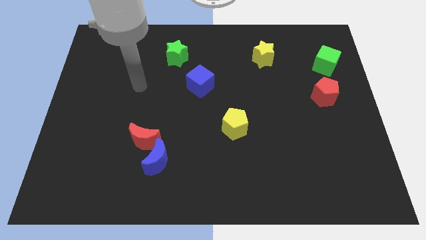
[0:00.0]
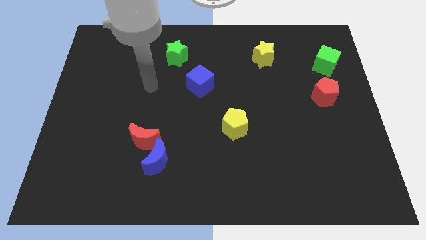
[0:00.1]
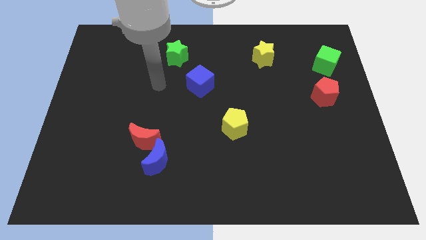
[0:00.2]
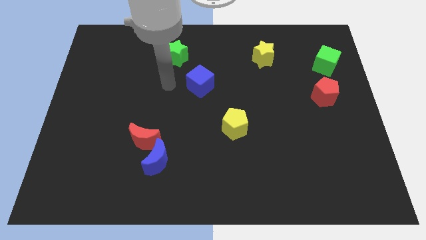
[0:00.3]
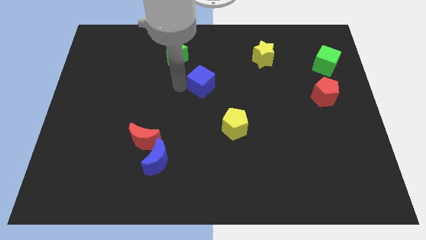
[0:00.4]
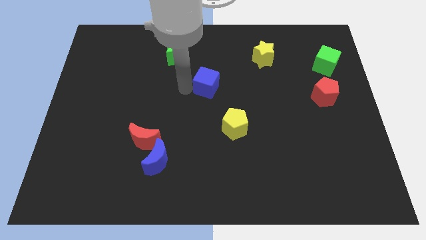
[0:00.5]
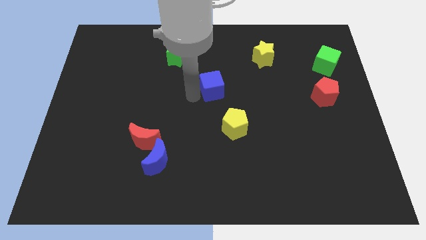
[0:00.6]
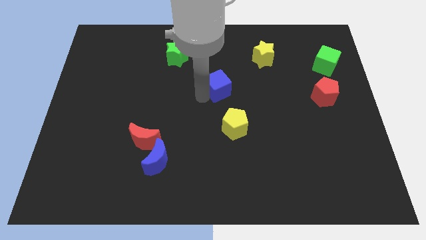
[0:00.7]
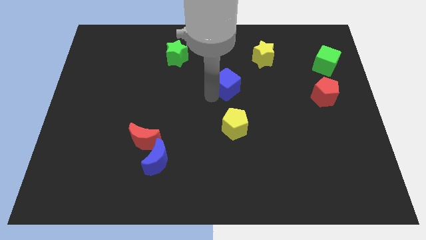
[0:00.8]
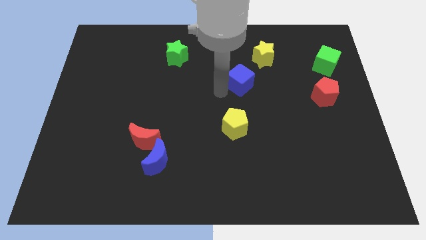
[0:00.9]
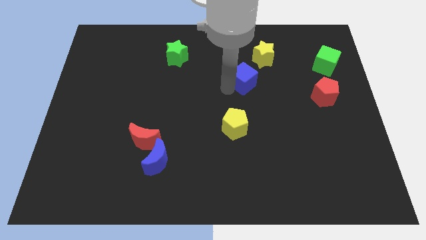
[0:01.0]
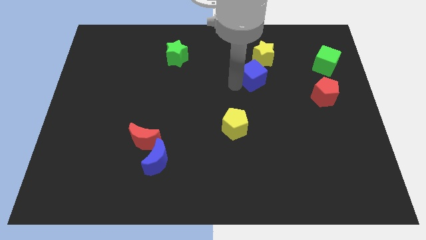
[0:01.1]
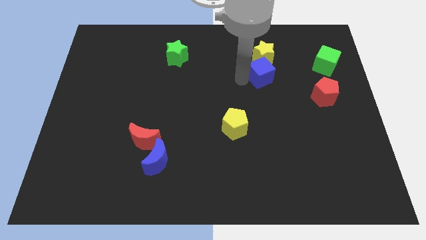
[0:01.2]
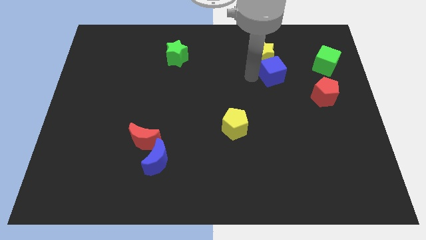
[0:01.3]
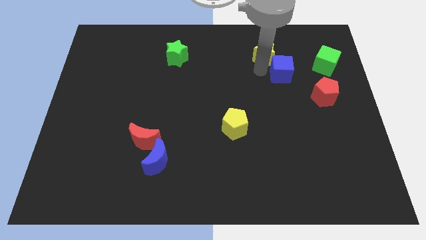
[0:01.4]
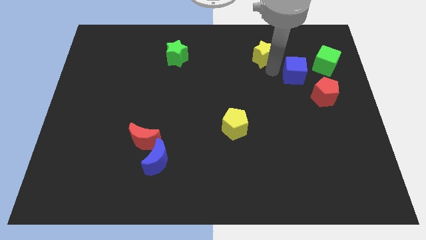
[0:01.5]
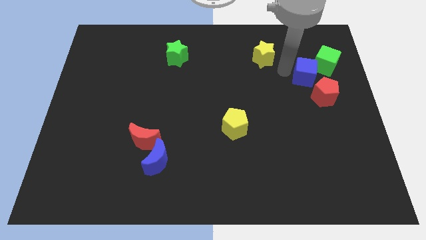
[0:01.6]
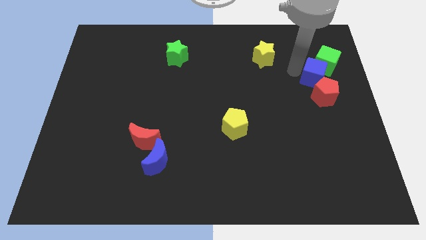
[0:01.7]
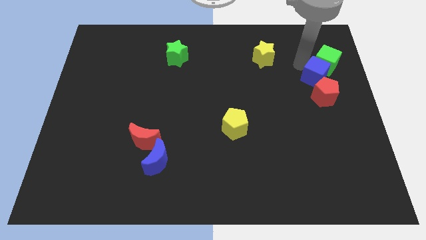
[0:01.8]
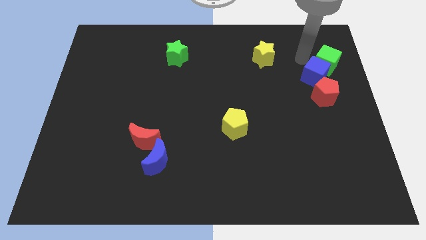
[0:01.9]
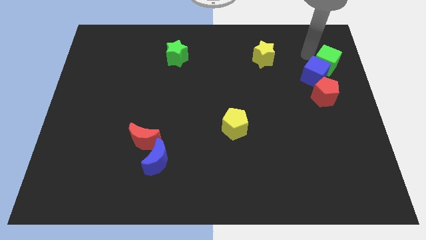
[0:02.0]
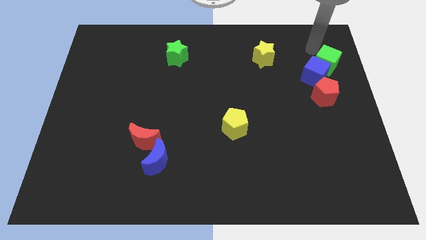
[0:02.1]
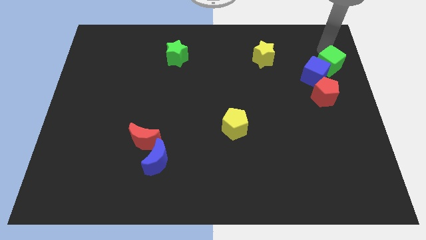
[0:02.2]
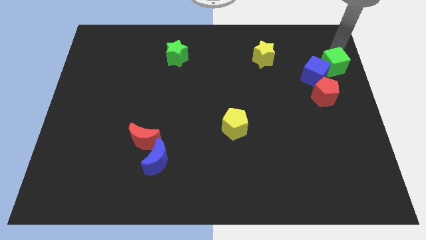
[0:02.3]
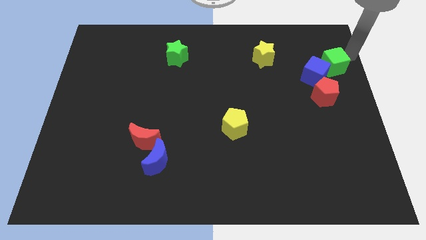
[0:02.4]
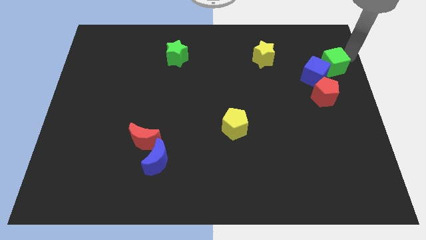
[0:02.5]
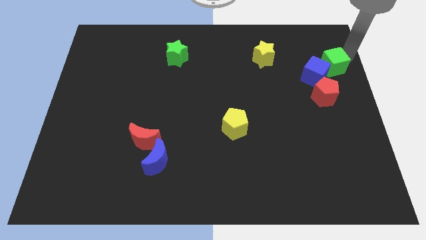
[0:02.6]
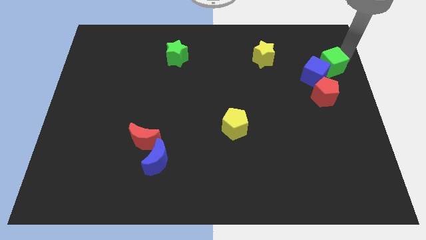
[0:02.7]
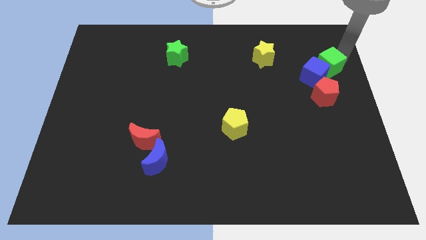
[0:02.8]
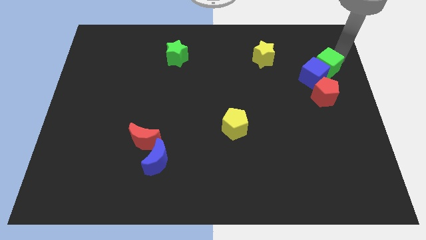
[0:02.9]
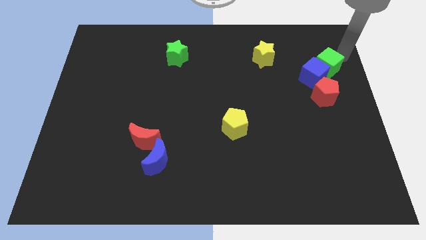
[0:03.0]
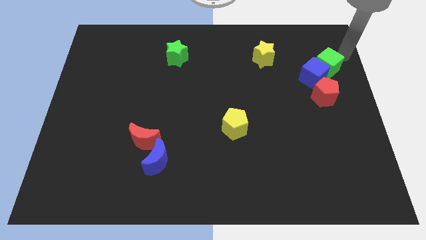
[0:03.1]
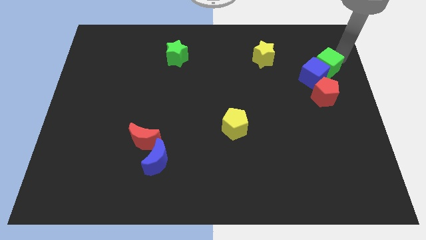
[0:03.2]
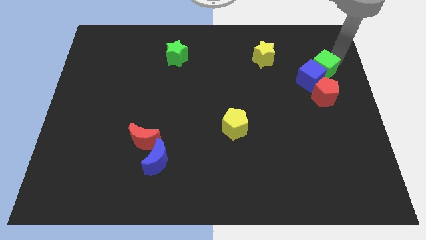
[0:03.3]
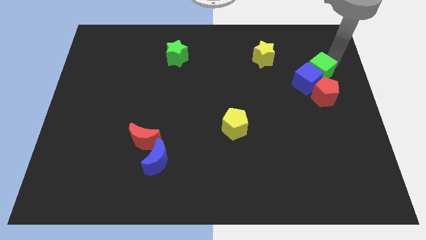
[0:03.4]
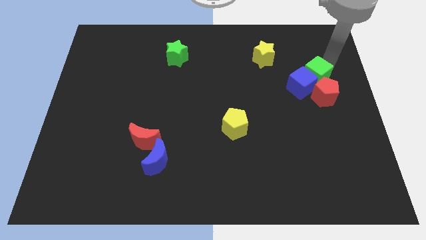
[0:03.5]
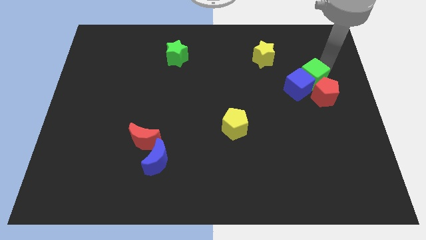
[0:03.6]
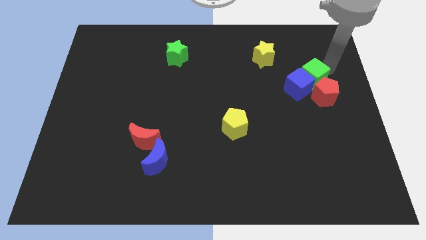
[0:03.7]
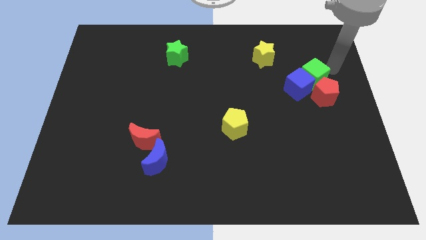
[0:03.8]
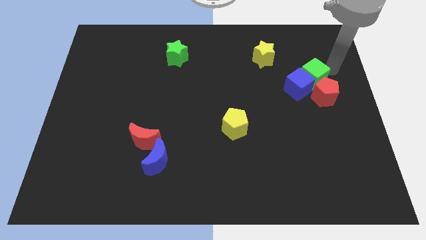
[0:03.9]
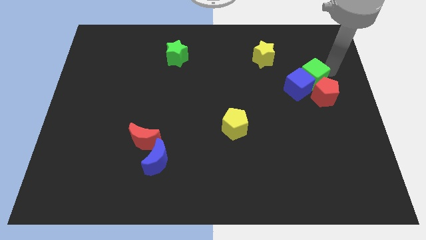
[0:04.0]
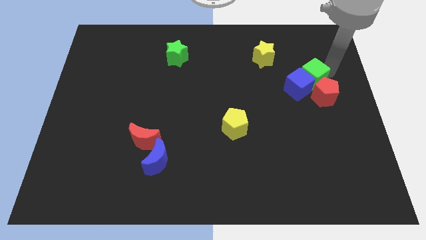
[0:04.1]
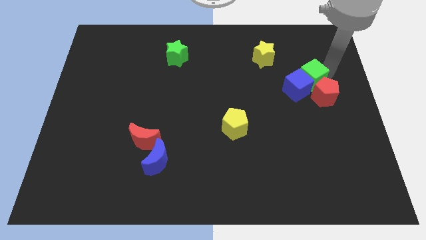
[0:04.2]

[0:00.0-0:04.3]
slightly slide the green cube downwards and to the left

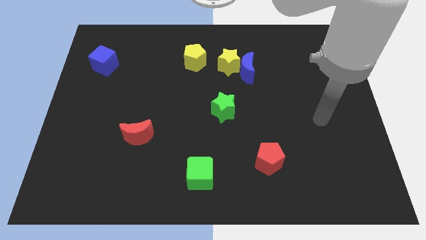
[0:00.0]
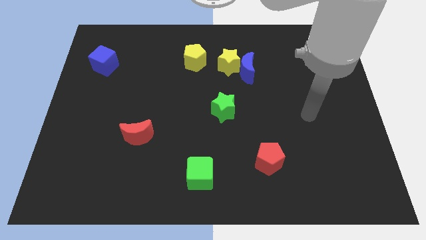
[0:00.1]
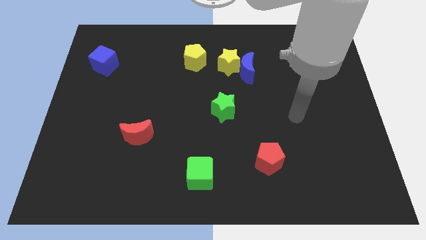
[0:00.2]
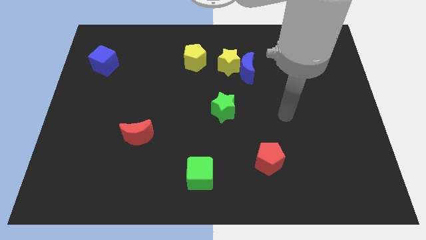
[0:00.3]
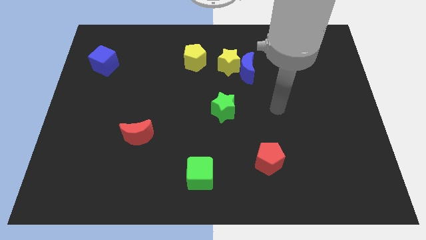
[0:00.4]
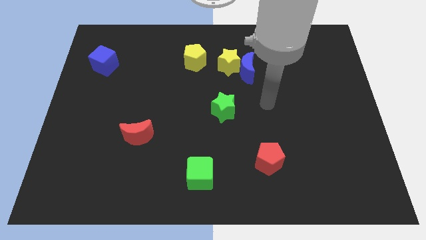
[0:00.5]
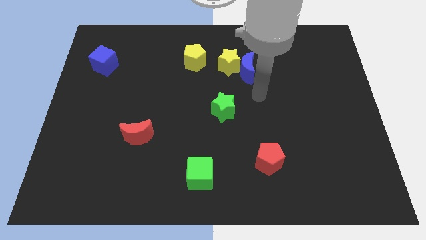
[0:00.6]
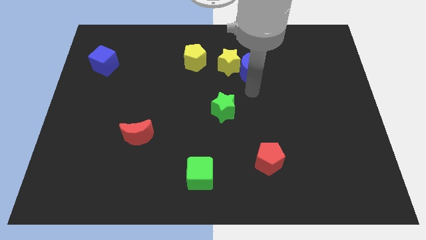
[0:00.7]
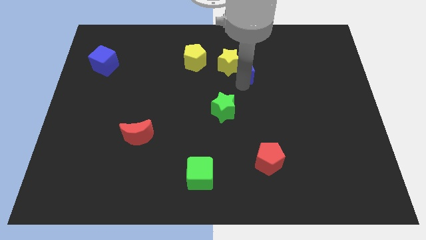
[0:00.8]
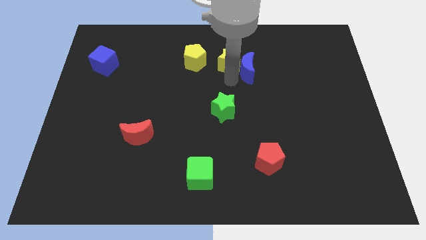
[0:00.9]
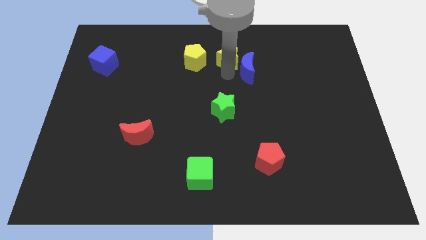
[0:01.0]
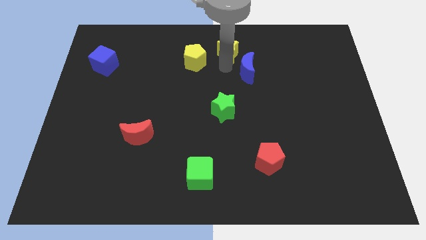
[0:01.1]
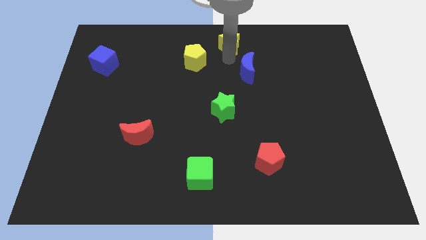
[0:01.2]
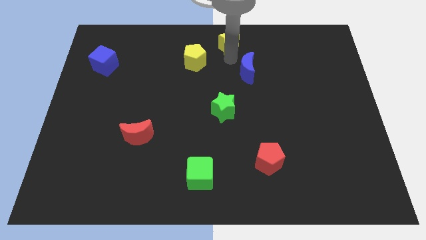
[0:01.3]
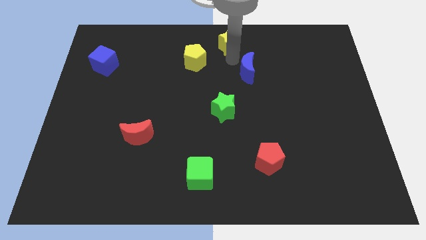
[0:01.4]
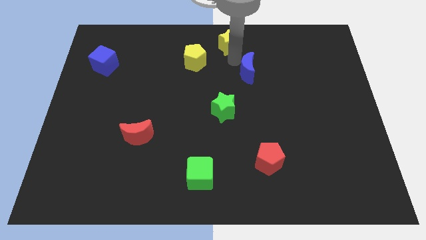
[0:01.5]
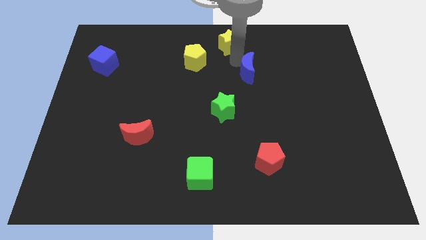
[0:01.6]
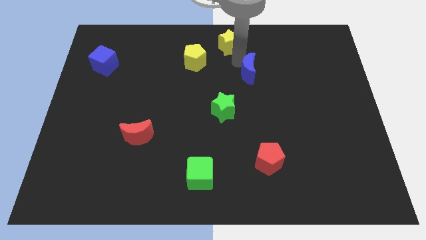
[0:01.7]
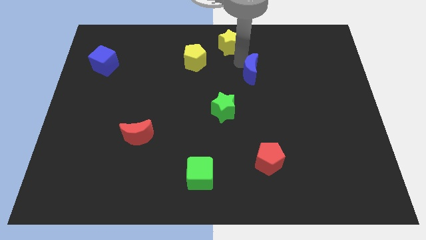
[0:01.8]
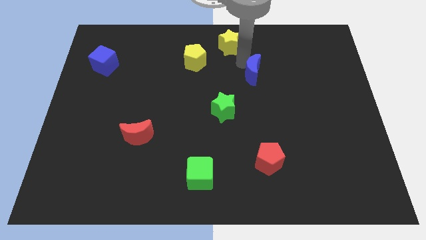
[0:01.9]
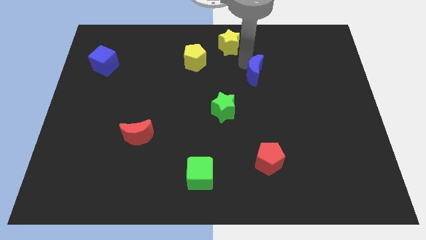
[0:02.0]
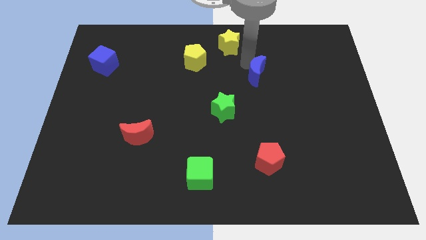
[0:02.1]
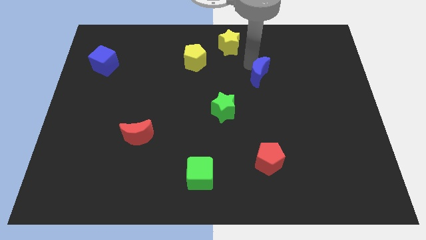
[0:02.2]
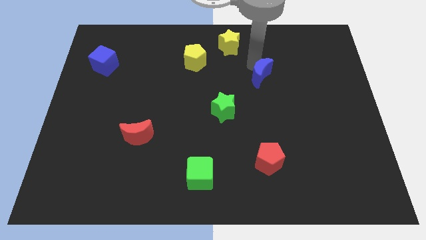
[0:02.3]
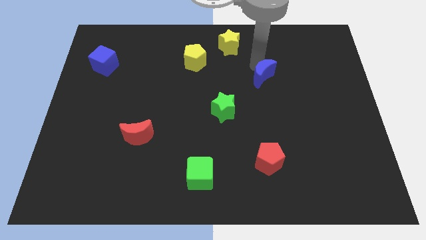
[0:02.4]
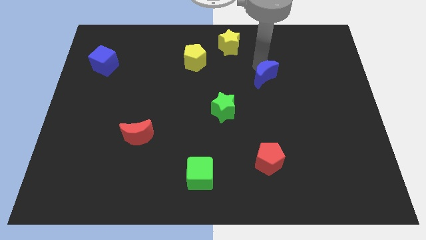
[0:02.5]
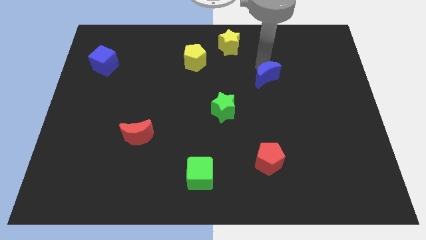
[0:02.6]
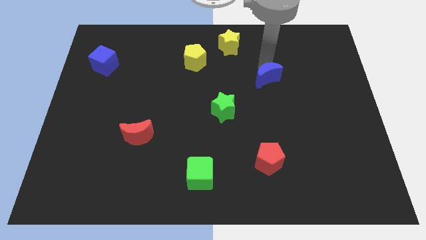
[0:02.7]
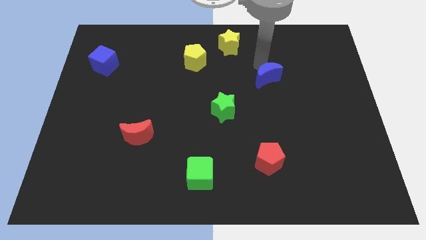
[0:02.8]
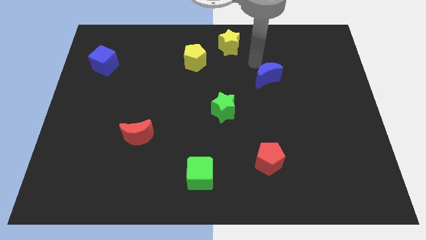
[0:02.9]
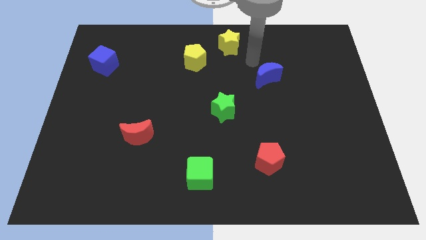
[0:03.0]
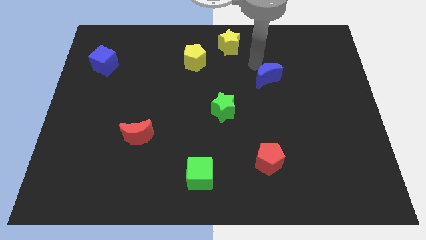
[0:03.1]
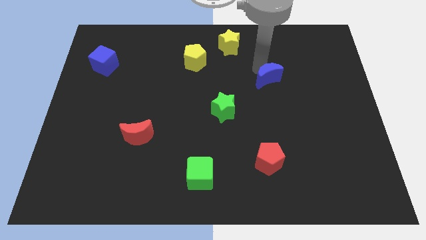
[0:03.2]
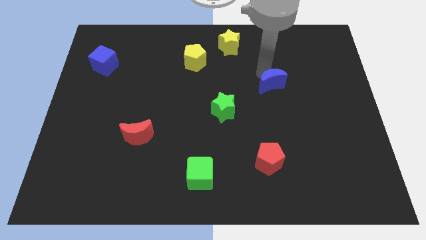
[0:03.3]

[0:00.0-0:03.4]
slightly push the blue moon downwards and then right

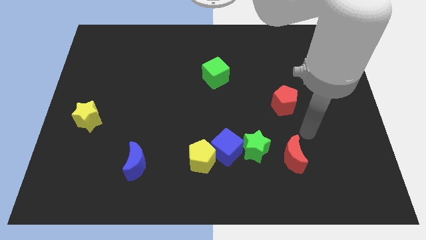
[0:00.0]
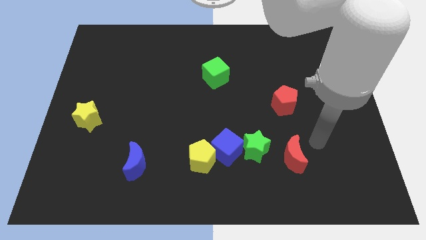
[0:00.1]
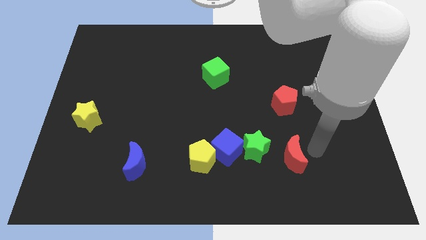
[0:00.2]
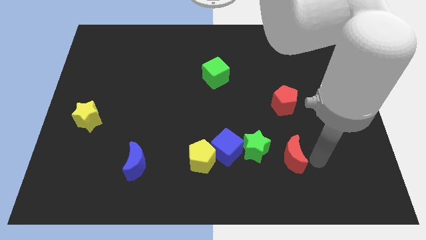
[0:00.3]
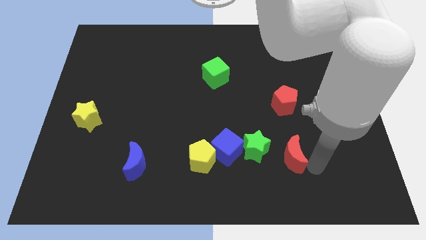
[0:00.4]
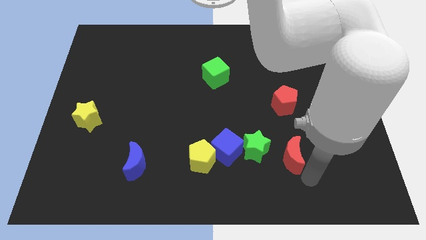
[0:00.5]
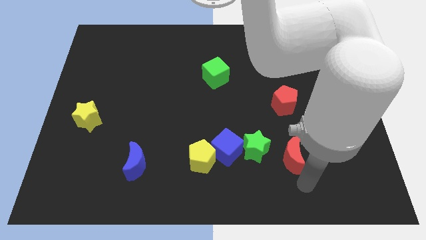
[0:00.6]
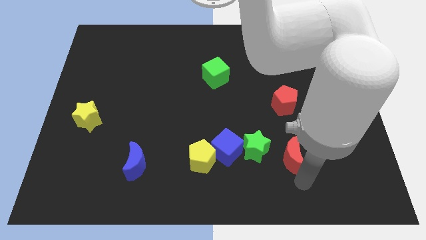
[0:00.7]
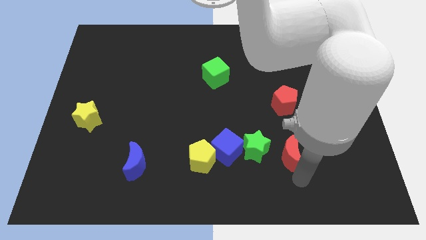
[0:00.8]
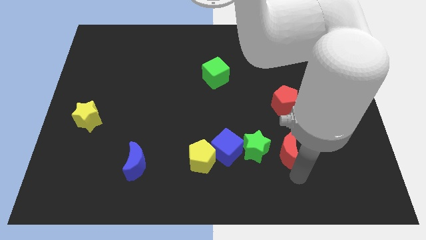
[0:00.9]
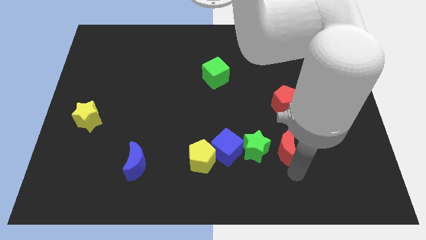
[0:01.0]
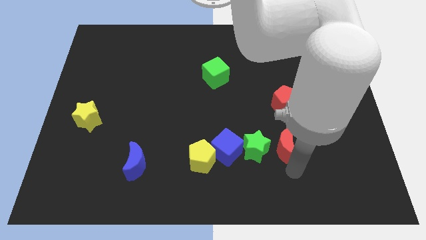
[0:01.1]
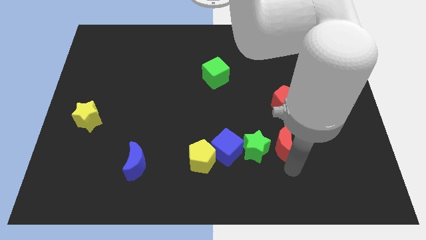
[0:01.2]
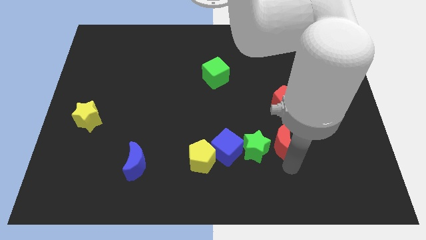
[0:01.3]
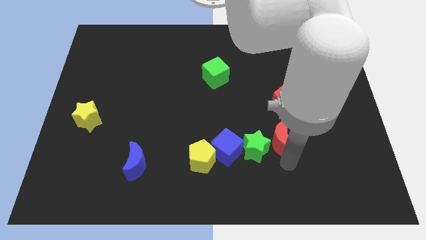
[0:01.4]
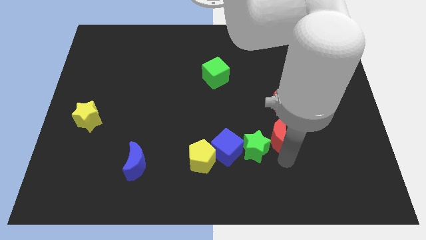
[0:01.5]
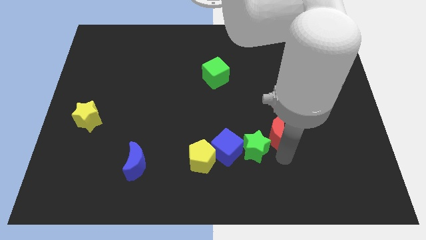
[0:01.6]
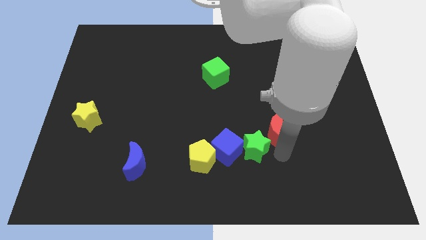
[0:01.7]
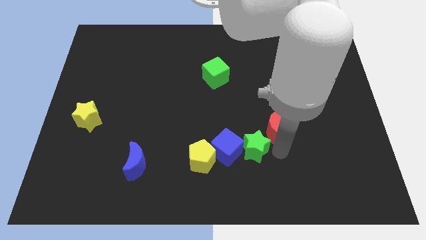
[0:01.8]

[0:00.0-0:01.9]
move the red moon upwards and to the left diagonally somewhat
